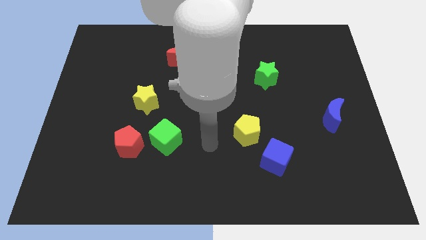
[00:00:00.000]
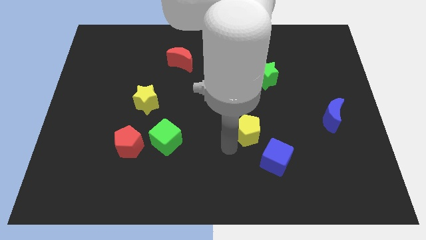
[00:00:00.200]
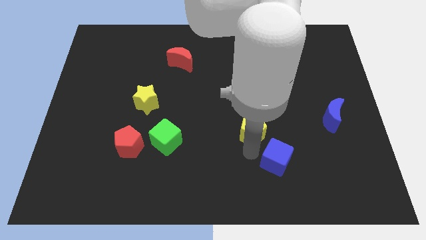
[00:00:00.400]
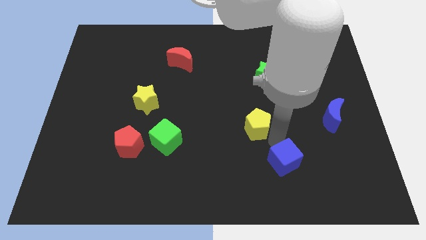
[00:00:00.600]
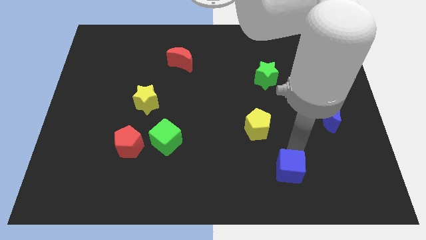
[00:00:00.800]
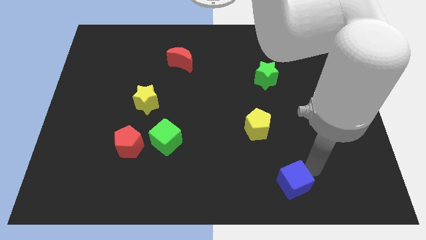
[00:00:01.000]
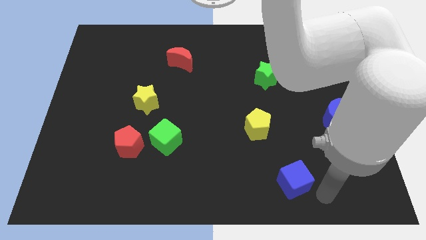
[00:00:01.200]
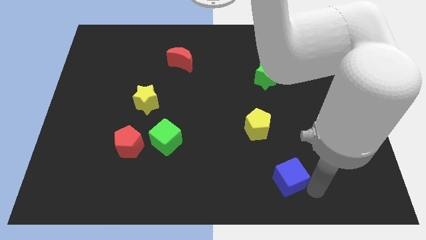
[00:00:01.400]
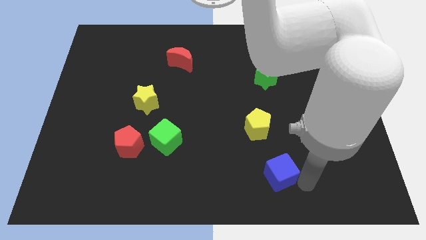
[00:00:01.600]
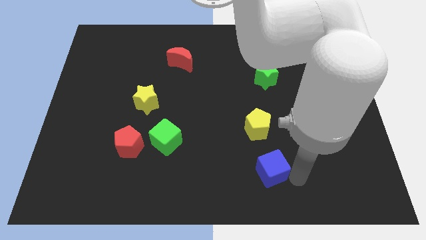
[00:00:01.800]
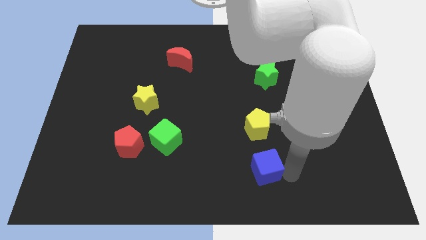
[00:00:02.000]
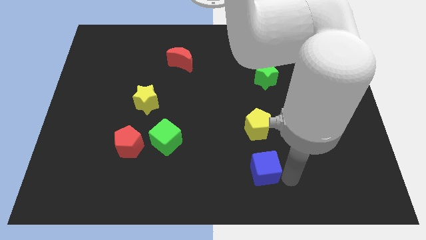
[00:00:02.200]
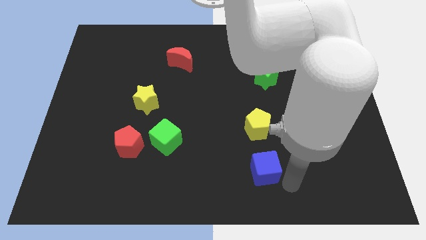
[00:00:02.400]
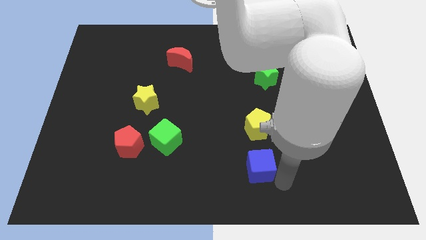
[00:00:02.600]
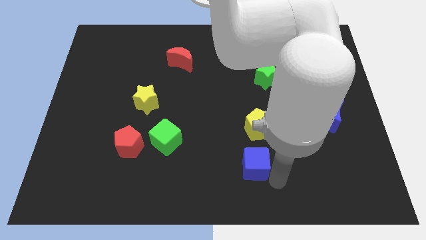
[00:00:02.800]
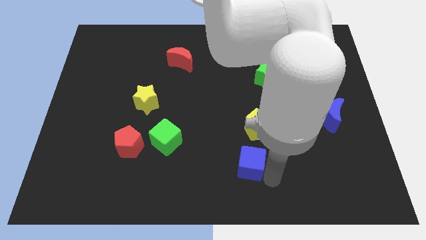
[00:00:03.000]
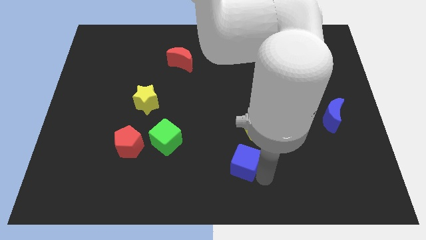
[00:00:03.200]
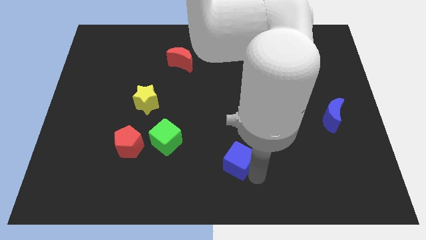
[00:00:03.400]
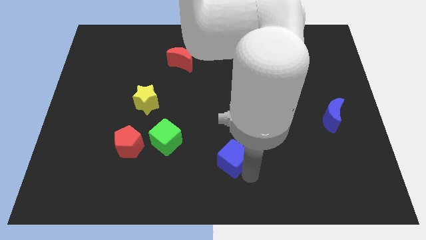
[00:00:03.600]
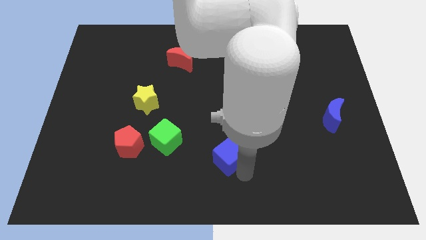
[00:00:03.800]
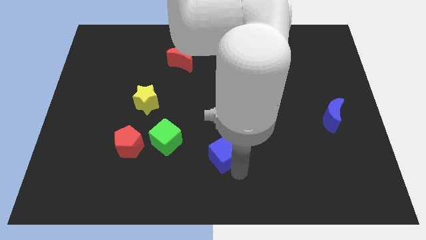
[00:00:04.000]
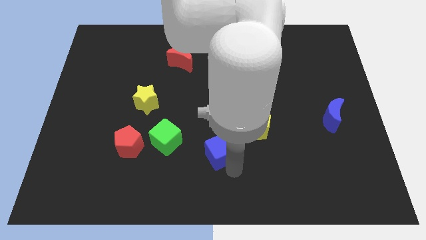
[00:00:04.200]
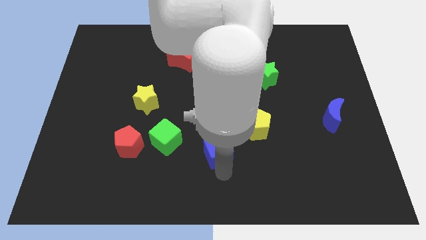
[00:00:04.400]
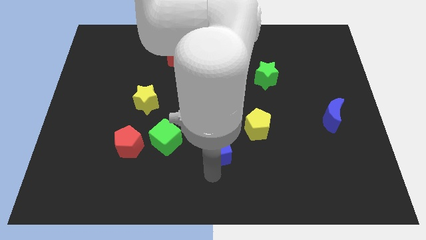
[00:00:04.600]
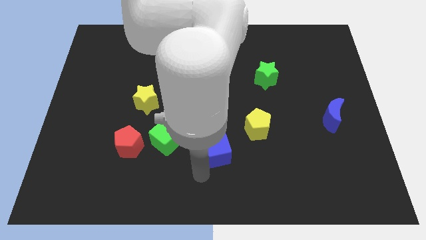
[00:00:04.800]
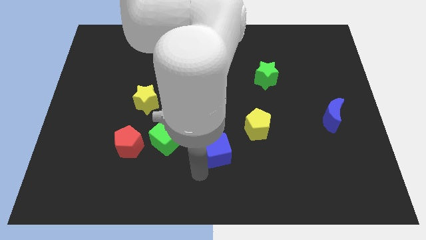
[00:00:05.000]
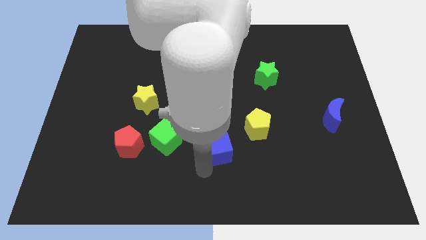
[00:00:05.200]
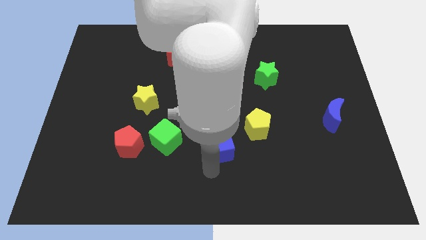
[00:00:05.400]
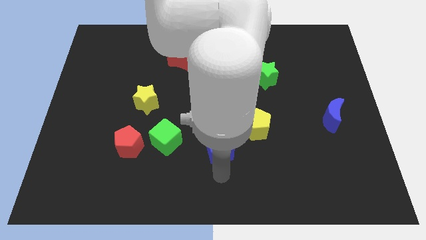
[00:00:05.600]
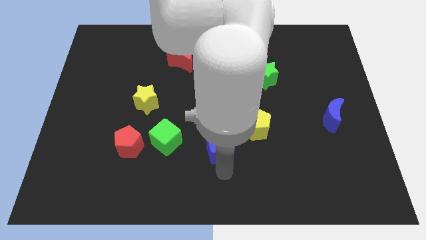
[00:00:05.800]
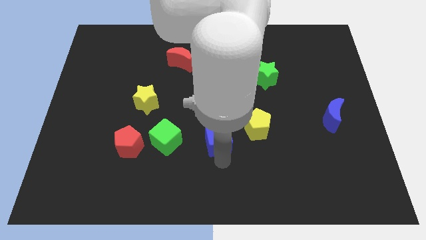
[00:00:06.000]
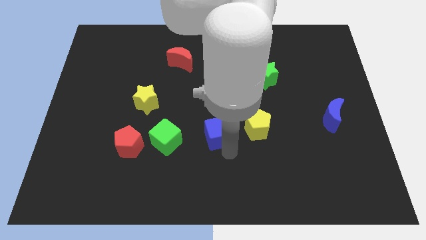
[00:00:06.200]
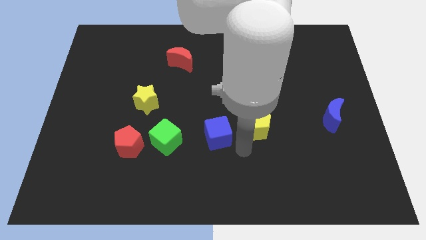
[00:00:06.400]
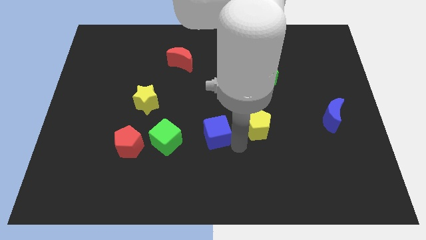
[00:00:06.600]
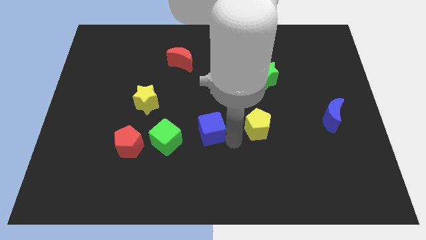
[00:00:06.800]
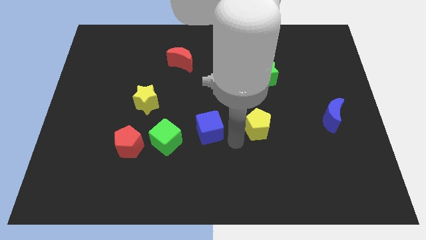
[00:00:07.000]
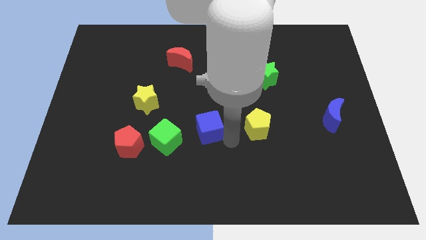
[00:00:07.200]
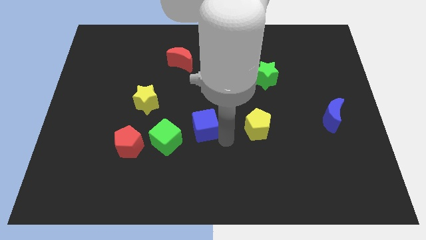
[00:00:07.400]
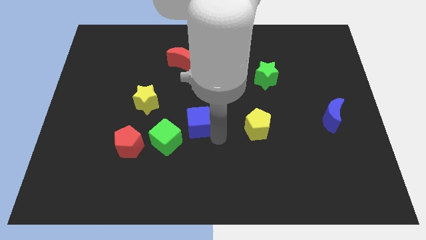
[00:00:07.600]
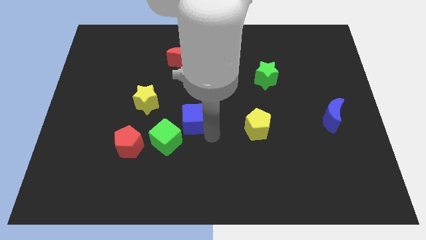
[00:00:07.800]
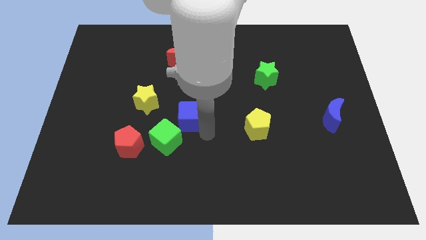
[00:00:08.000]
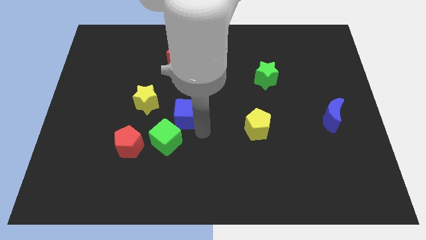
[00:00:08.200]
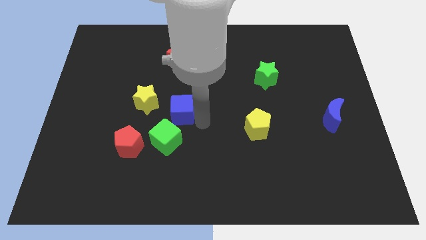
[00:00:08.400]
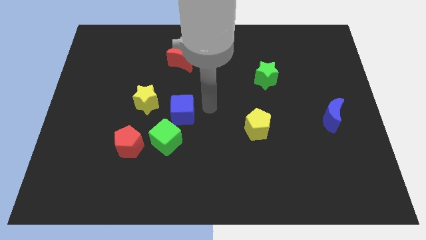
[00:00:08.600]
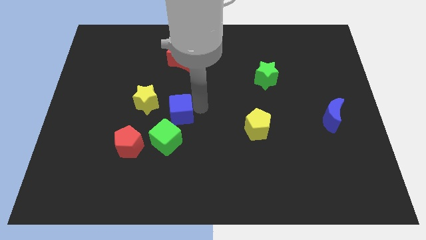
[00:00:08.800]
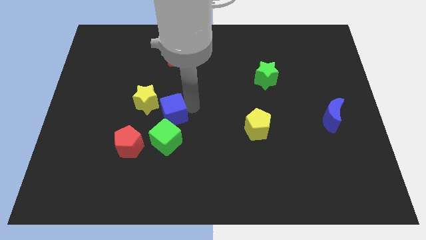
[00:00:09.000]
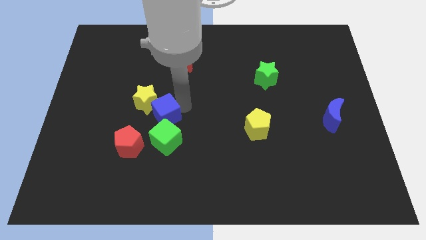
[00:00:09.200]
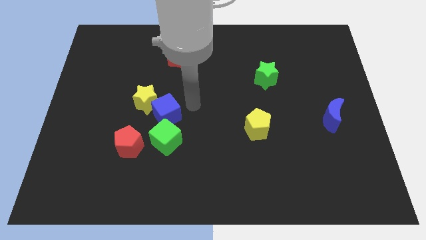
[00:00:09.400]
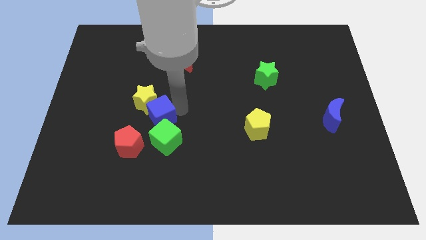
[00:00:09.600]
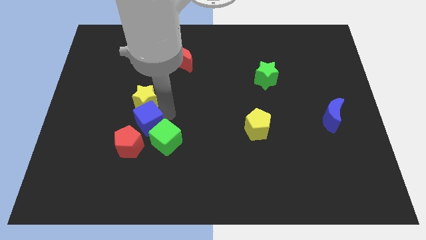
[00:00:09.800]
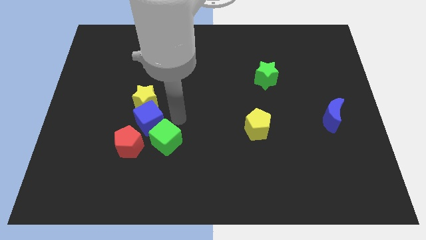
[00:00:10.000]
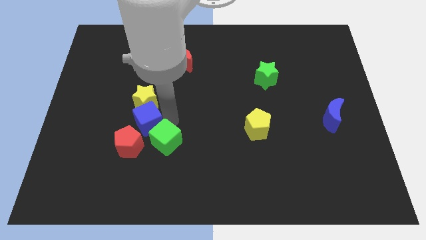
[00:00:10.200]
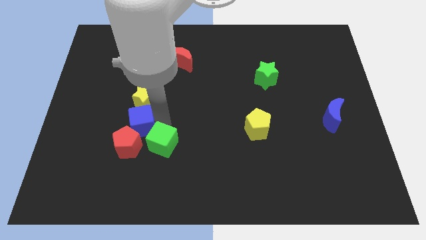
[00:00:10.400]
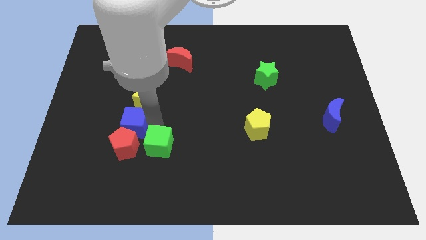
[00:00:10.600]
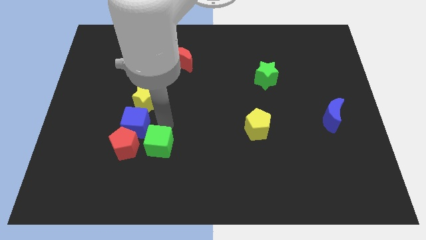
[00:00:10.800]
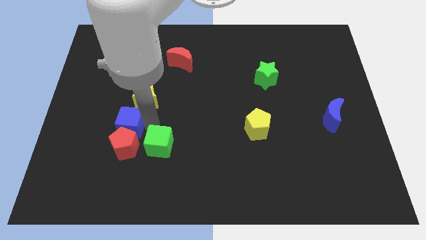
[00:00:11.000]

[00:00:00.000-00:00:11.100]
push the blue cube diagonally up and to the left of the red pentagon

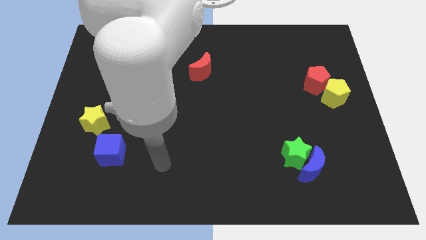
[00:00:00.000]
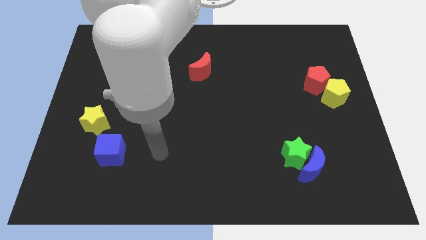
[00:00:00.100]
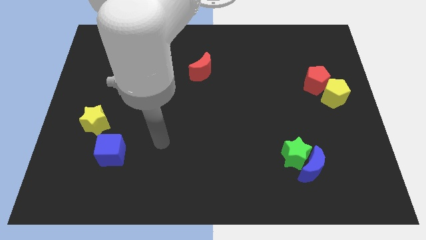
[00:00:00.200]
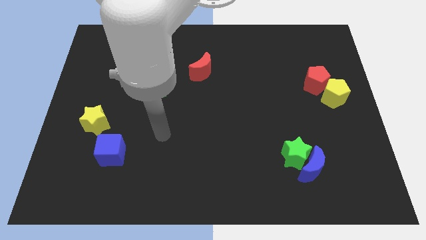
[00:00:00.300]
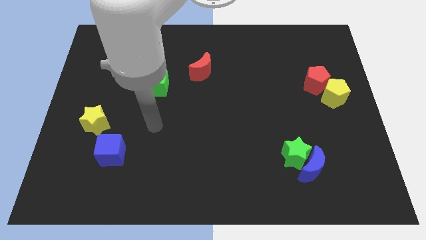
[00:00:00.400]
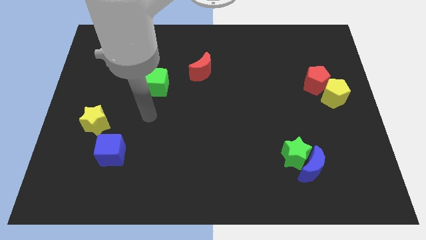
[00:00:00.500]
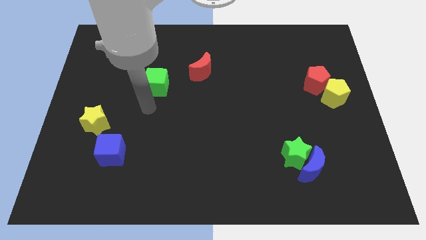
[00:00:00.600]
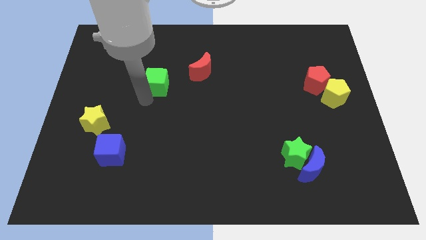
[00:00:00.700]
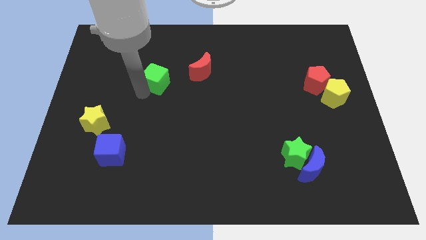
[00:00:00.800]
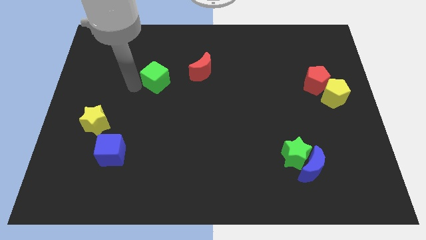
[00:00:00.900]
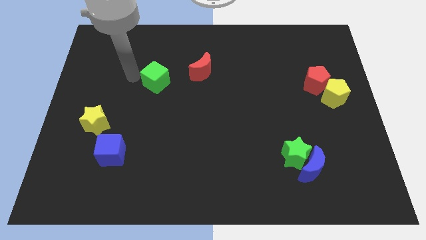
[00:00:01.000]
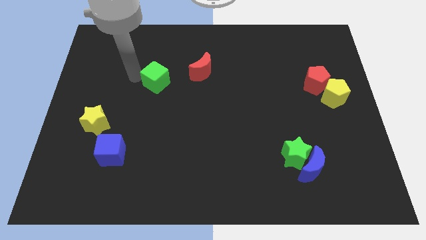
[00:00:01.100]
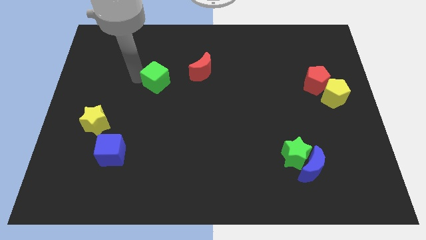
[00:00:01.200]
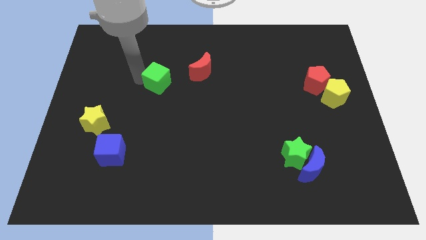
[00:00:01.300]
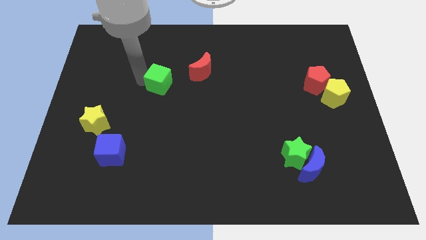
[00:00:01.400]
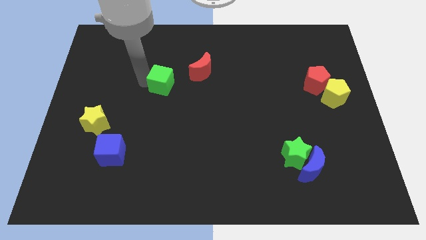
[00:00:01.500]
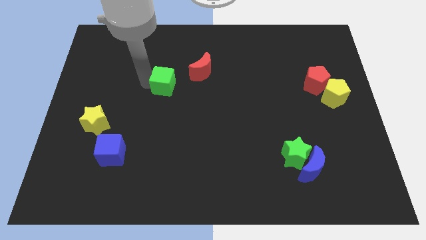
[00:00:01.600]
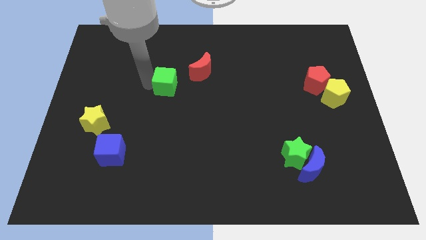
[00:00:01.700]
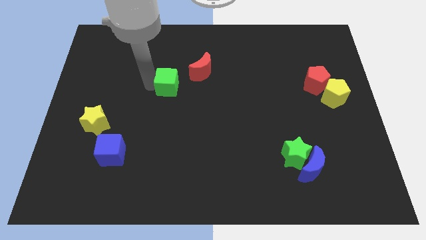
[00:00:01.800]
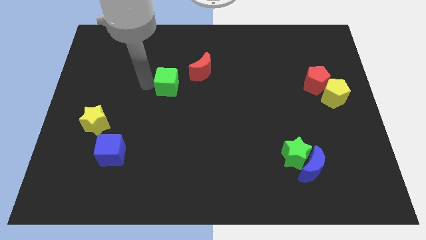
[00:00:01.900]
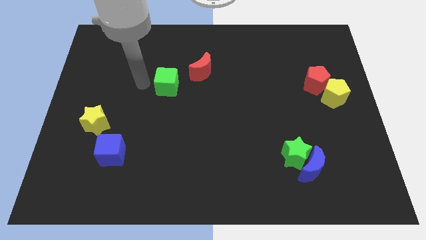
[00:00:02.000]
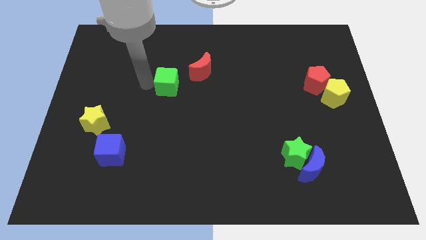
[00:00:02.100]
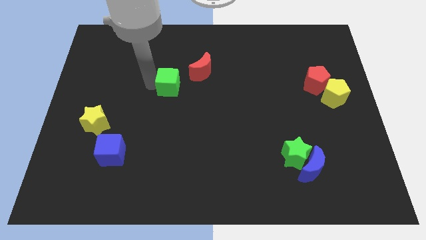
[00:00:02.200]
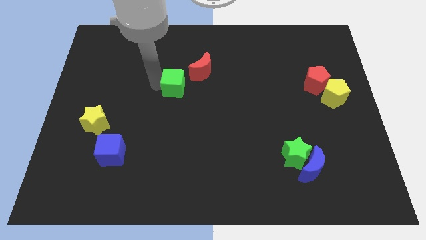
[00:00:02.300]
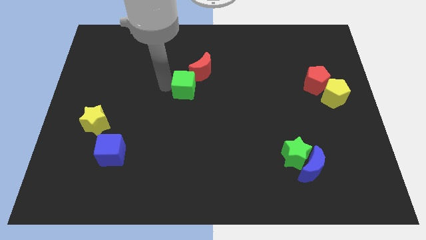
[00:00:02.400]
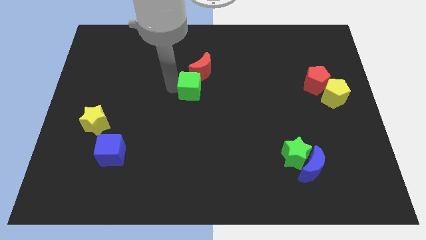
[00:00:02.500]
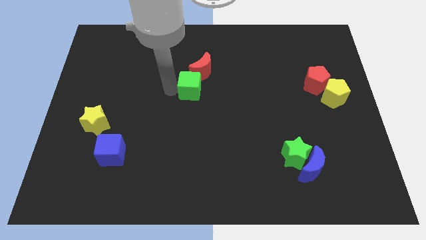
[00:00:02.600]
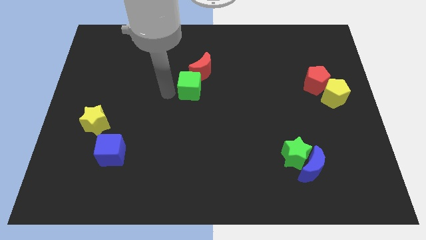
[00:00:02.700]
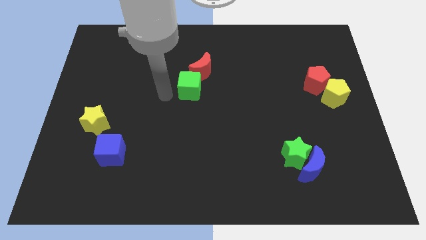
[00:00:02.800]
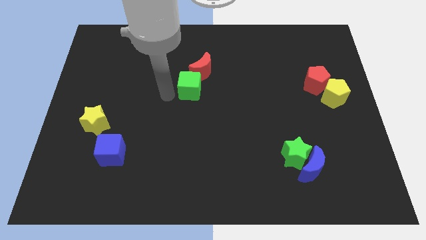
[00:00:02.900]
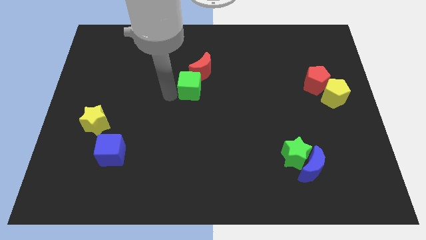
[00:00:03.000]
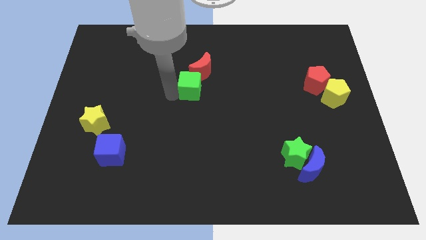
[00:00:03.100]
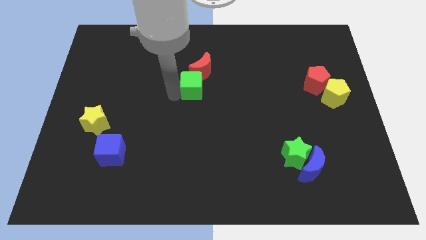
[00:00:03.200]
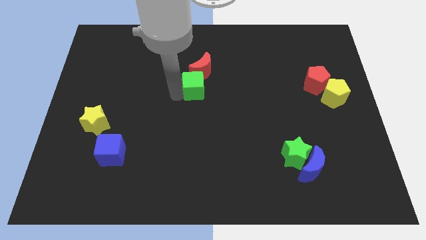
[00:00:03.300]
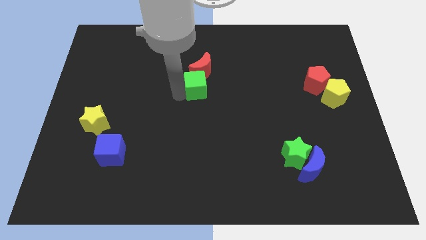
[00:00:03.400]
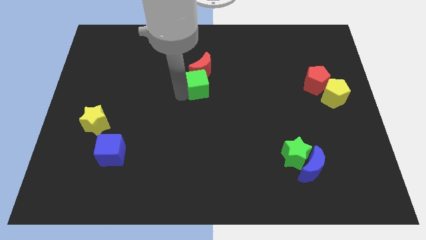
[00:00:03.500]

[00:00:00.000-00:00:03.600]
push the green cube diagonally down and to the right of the red moon
